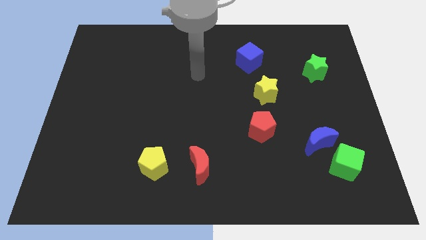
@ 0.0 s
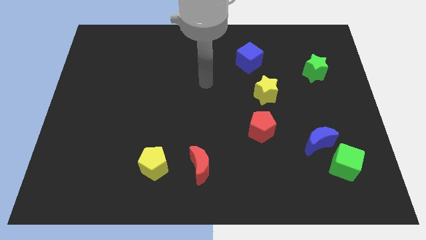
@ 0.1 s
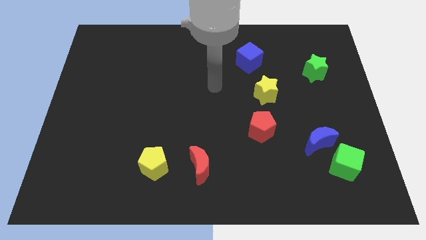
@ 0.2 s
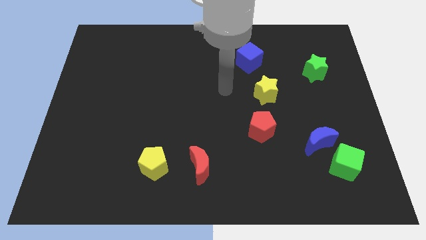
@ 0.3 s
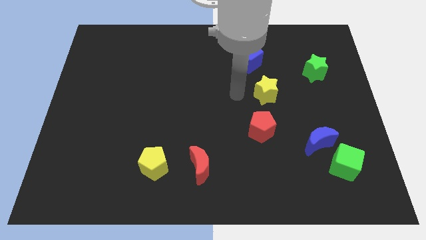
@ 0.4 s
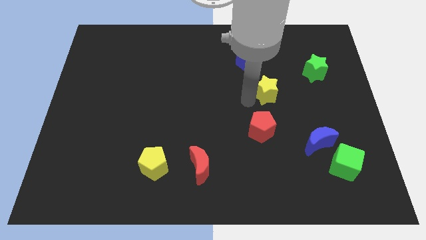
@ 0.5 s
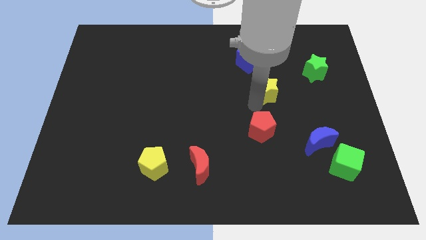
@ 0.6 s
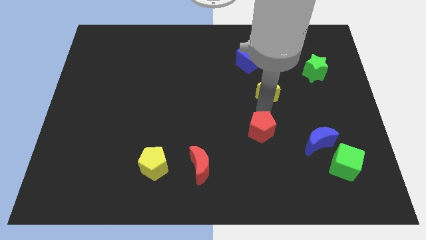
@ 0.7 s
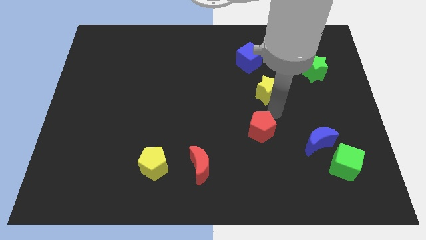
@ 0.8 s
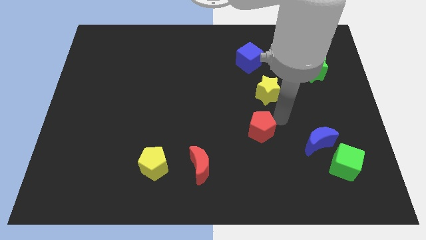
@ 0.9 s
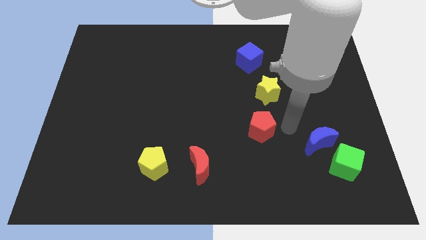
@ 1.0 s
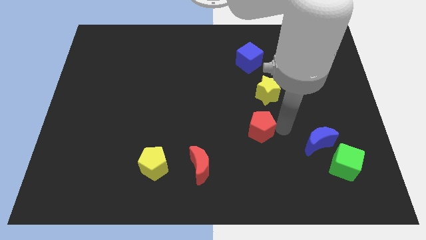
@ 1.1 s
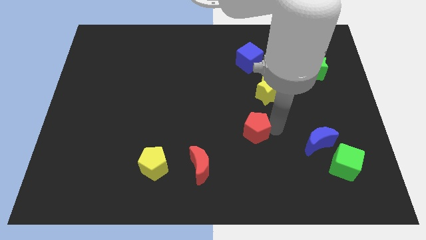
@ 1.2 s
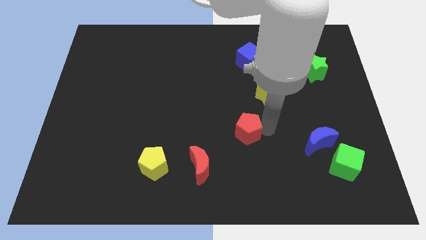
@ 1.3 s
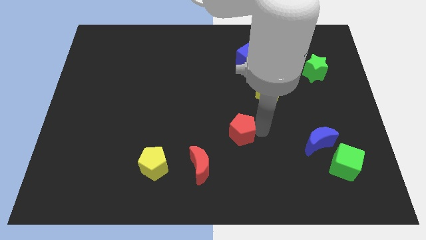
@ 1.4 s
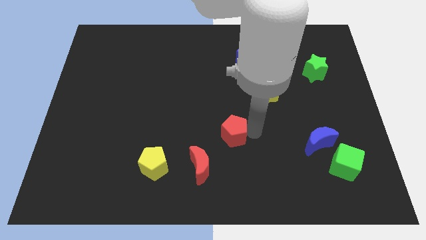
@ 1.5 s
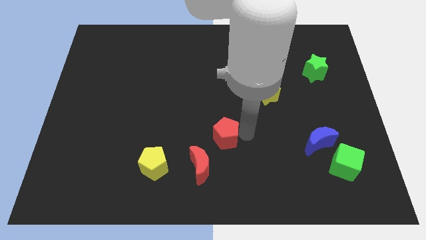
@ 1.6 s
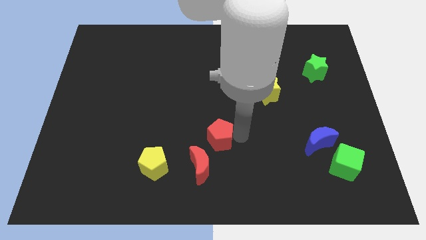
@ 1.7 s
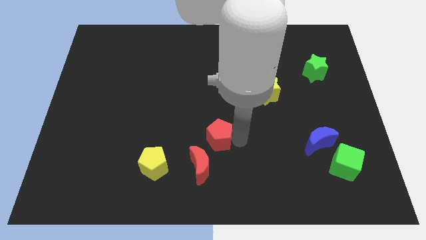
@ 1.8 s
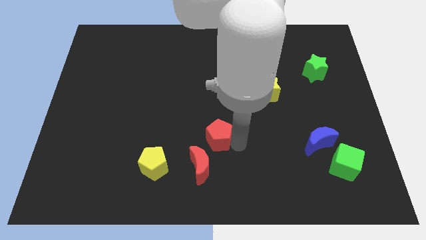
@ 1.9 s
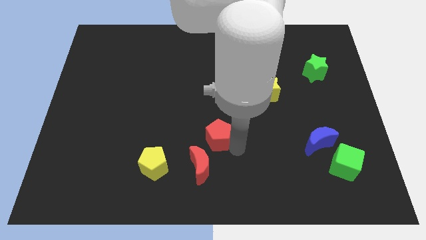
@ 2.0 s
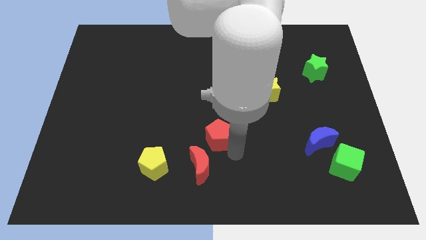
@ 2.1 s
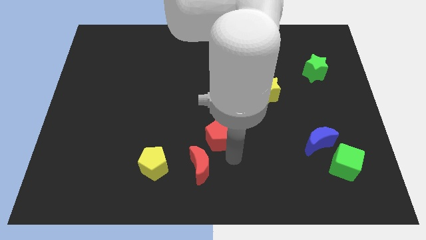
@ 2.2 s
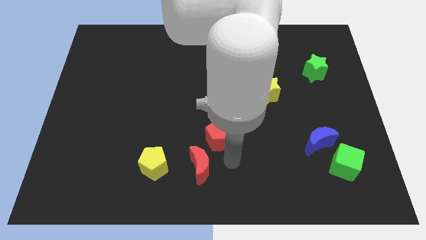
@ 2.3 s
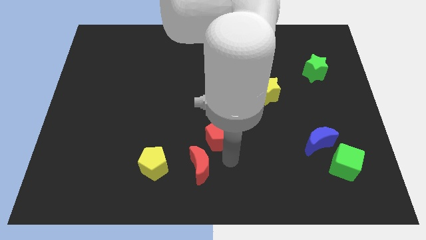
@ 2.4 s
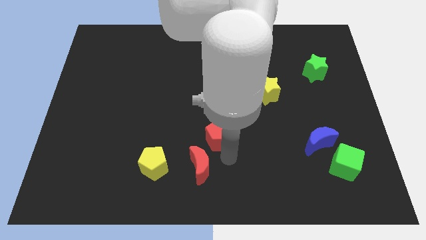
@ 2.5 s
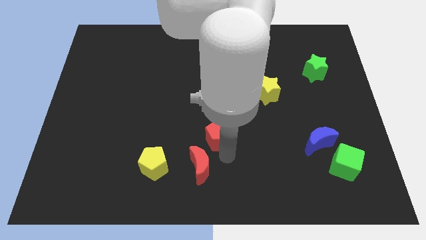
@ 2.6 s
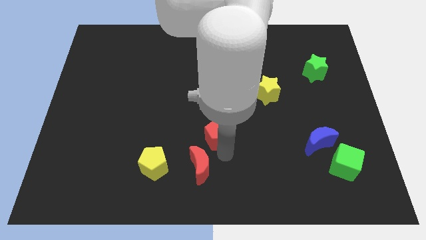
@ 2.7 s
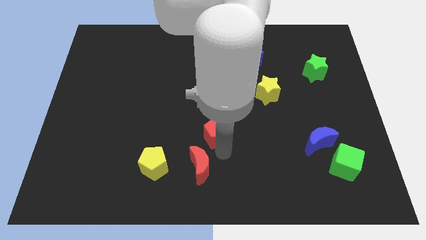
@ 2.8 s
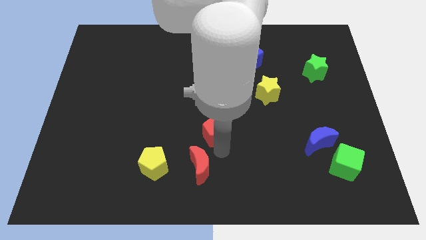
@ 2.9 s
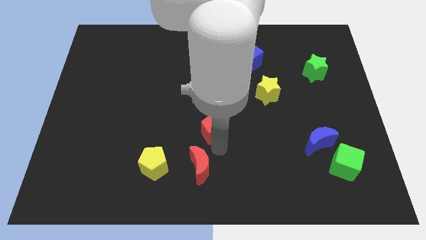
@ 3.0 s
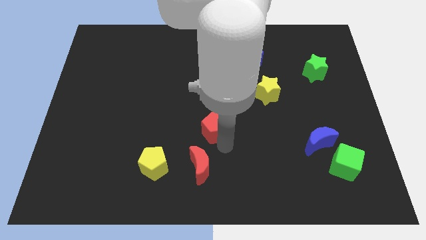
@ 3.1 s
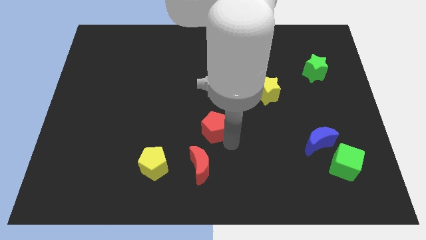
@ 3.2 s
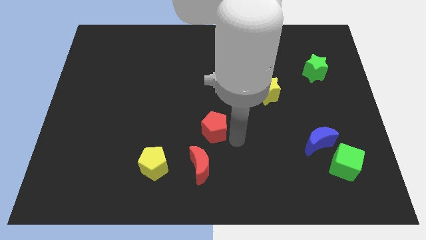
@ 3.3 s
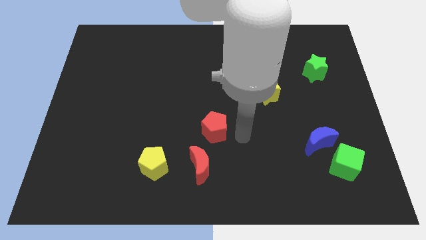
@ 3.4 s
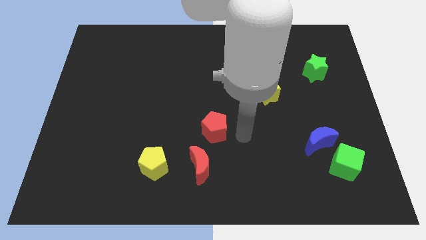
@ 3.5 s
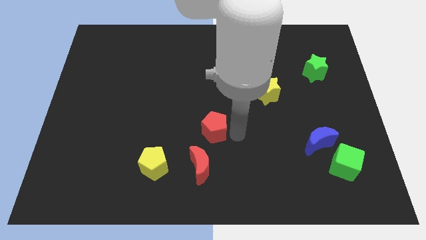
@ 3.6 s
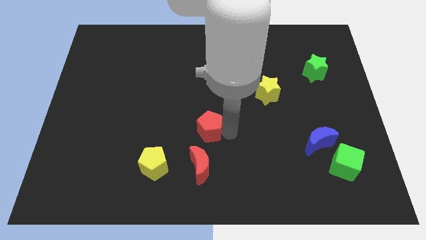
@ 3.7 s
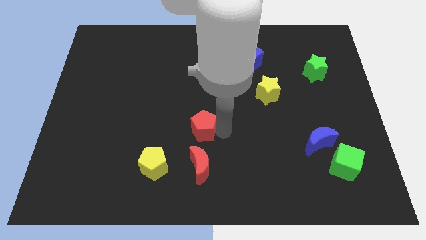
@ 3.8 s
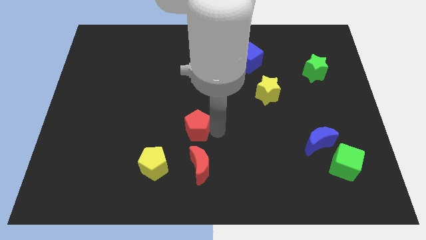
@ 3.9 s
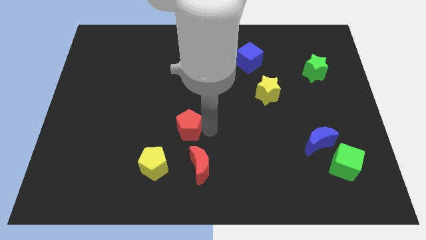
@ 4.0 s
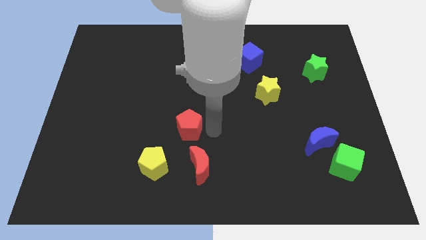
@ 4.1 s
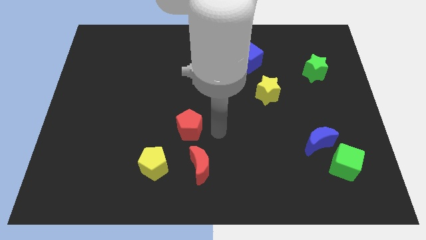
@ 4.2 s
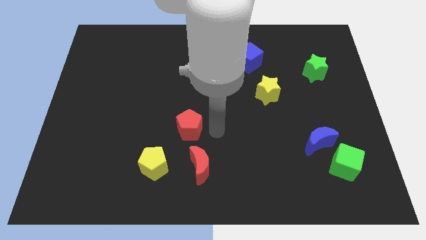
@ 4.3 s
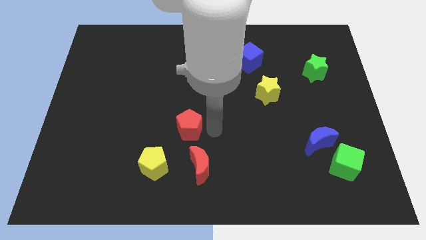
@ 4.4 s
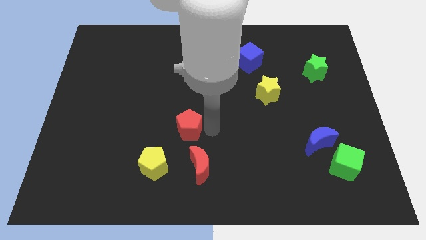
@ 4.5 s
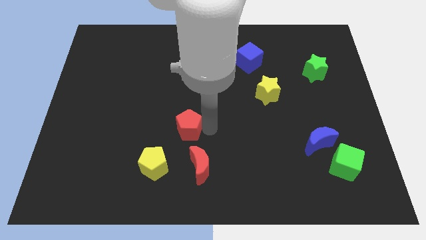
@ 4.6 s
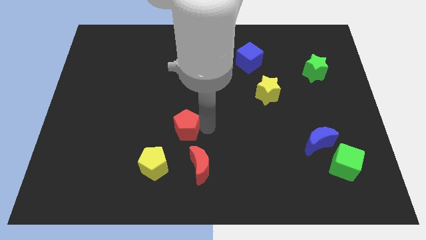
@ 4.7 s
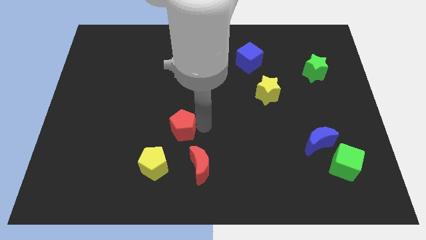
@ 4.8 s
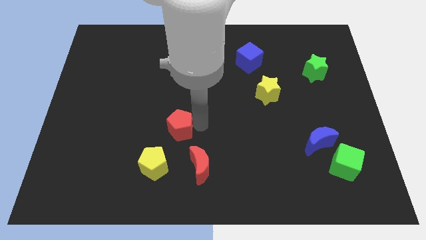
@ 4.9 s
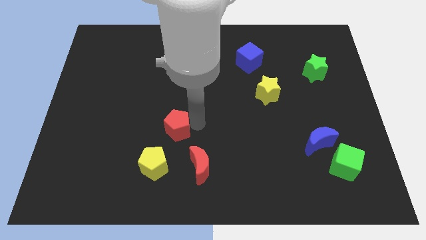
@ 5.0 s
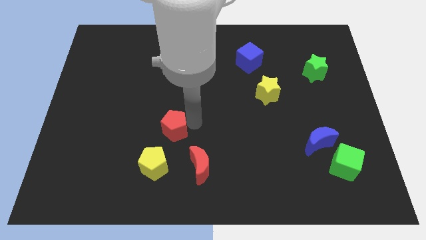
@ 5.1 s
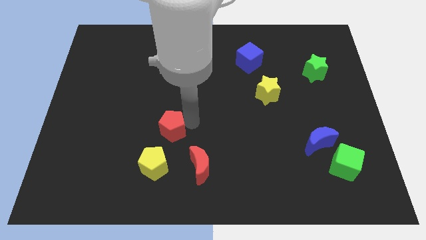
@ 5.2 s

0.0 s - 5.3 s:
push the red pentagon left

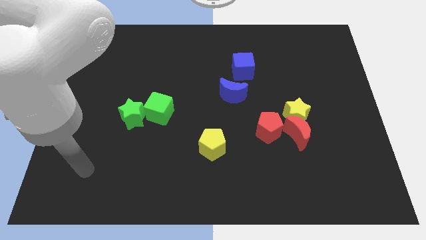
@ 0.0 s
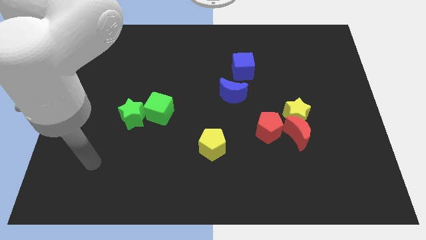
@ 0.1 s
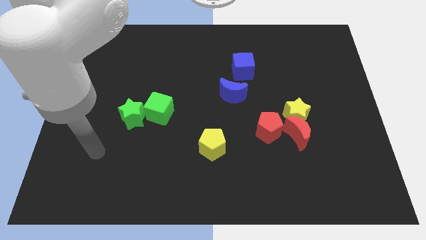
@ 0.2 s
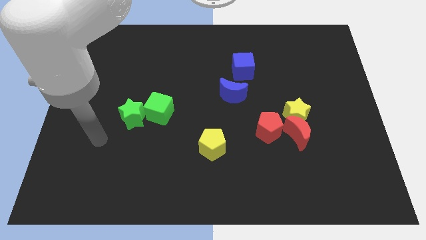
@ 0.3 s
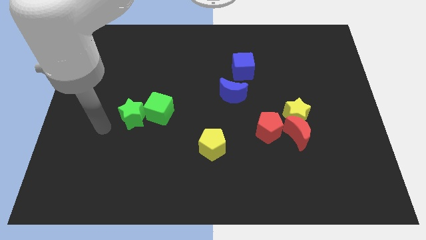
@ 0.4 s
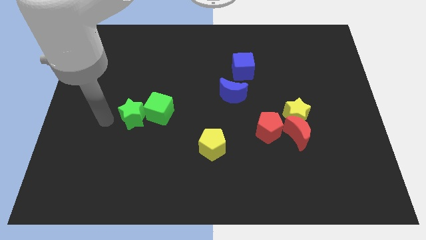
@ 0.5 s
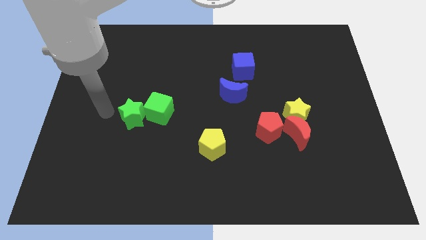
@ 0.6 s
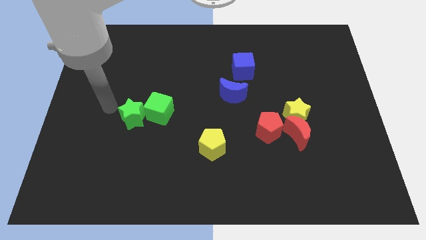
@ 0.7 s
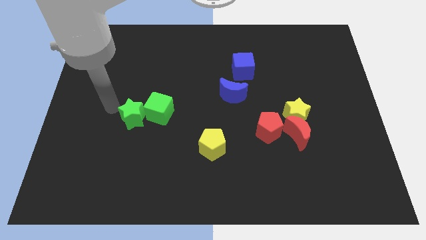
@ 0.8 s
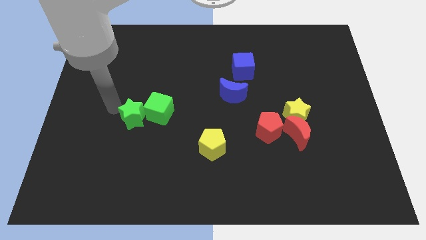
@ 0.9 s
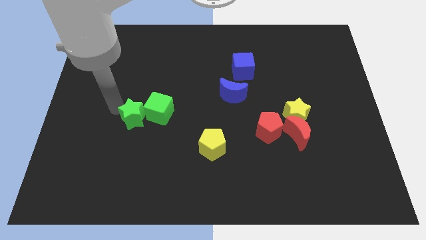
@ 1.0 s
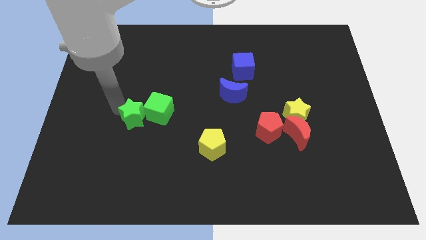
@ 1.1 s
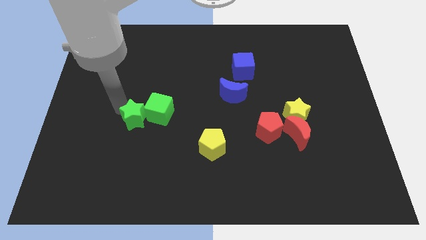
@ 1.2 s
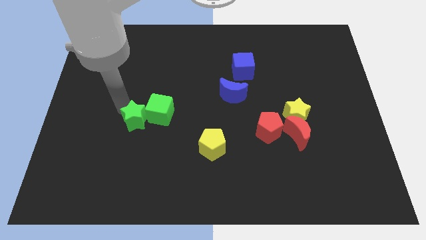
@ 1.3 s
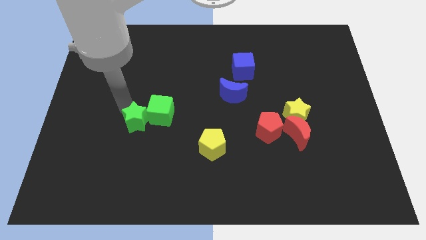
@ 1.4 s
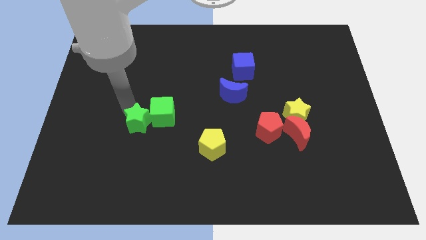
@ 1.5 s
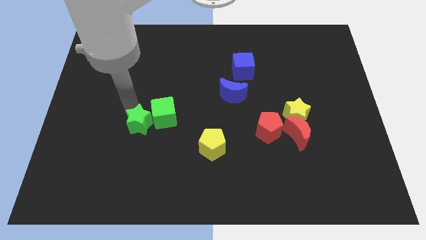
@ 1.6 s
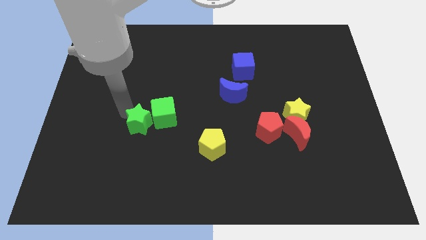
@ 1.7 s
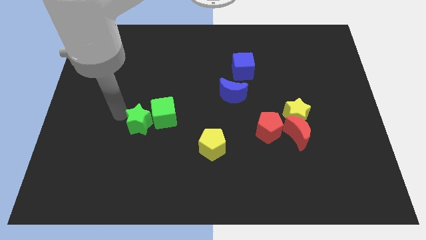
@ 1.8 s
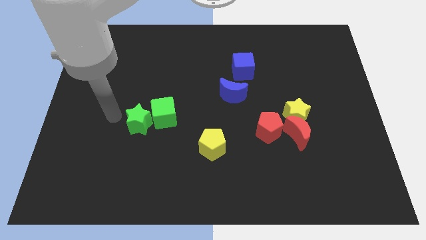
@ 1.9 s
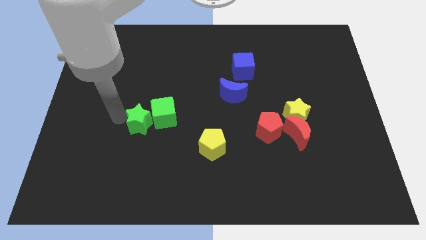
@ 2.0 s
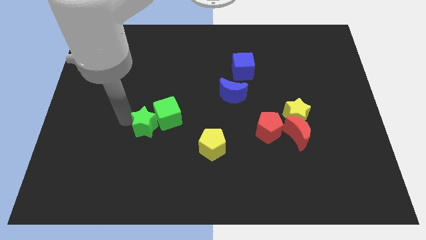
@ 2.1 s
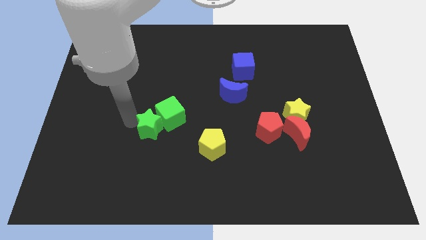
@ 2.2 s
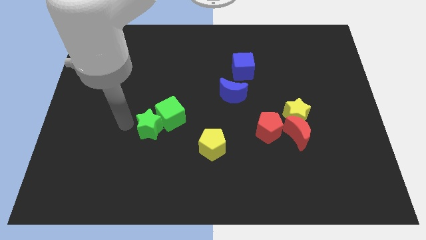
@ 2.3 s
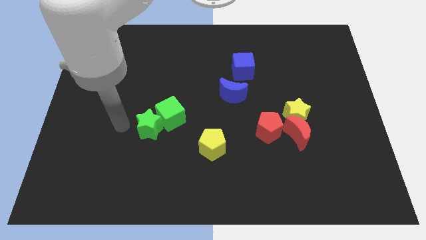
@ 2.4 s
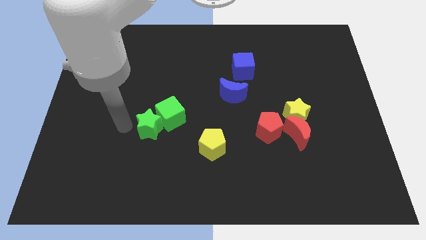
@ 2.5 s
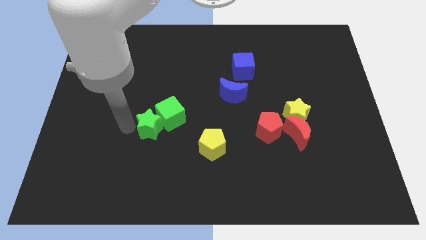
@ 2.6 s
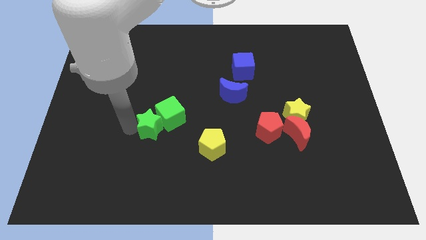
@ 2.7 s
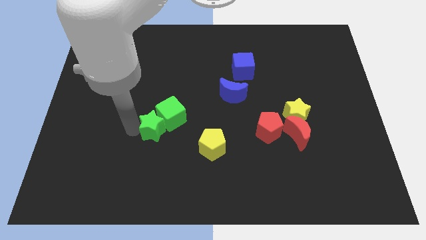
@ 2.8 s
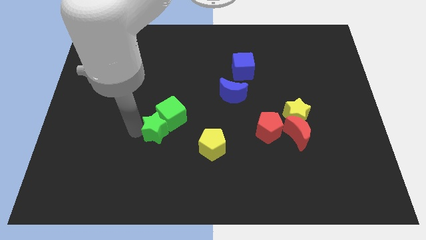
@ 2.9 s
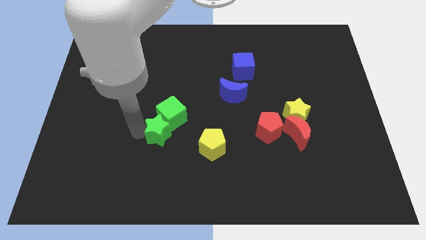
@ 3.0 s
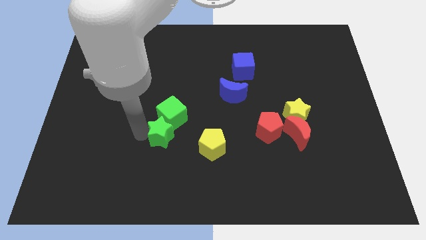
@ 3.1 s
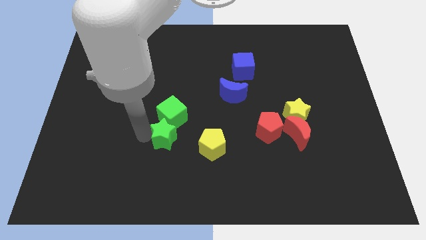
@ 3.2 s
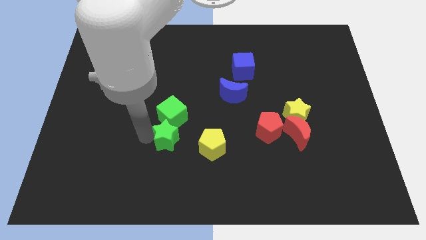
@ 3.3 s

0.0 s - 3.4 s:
move the green star a bit to the right
